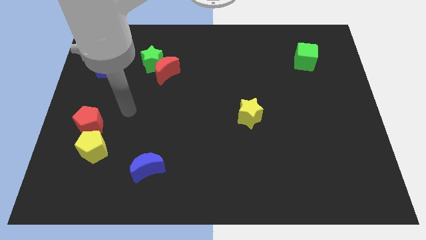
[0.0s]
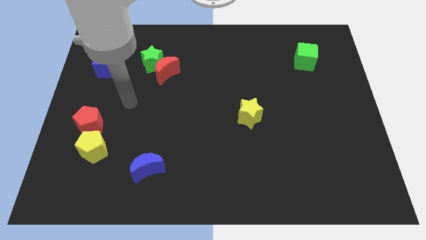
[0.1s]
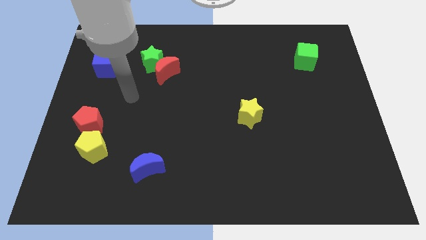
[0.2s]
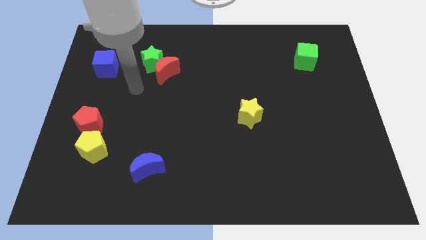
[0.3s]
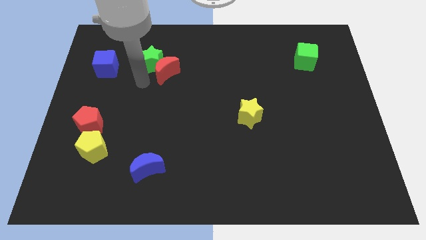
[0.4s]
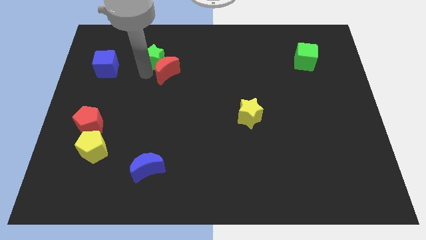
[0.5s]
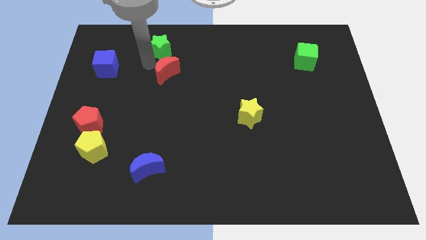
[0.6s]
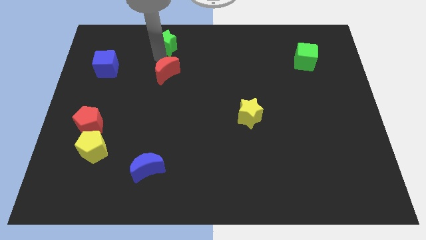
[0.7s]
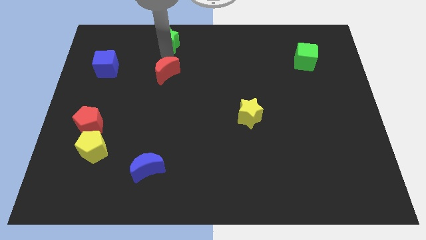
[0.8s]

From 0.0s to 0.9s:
move the red moon away from the green star

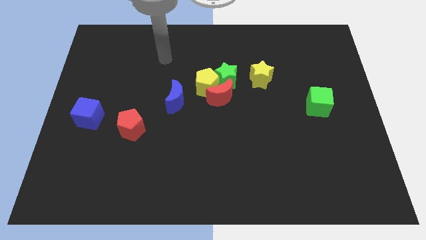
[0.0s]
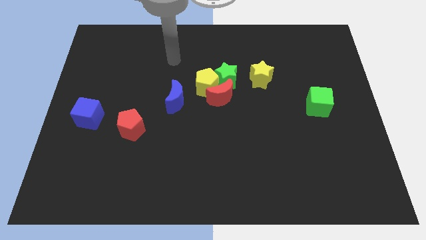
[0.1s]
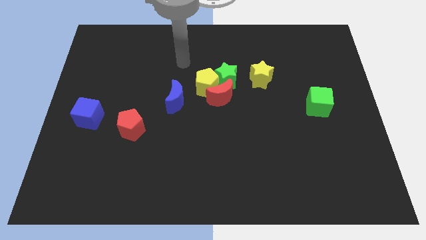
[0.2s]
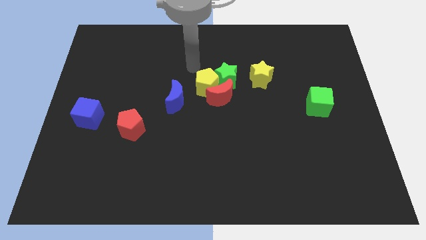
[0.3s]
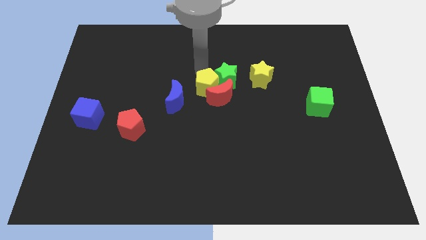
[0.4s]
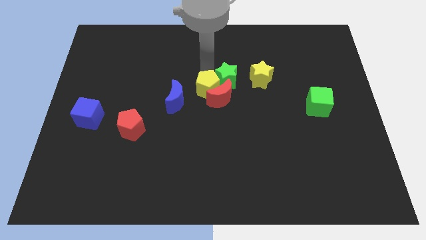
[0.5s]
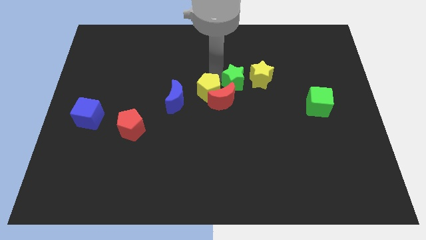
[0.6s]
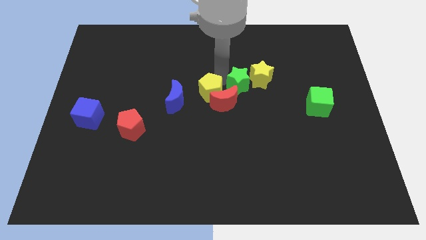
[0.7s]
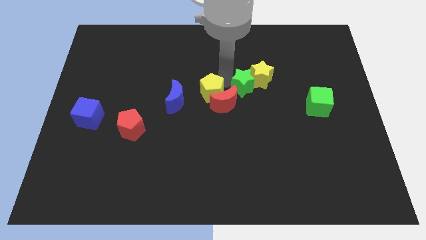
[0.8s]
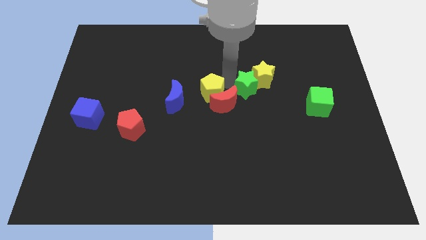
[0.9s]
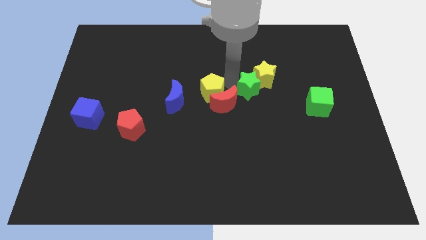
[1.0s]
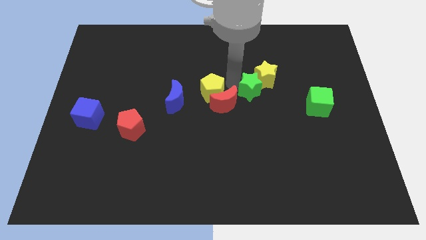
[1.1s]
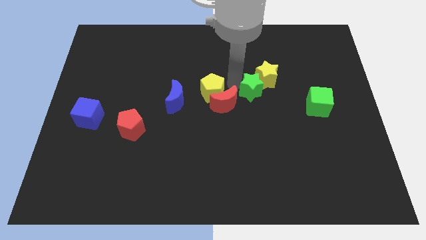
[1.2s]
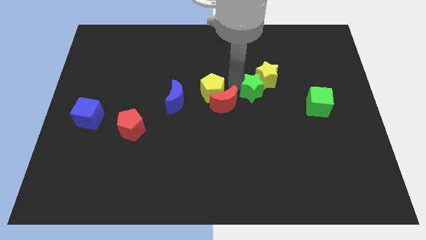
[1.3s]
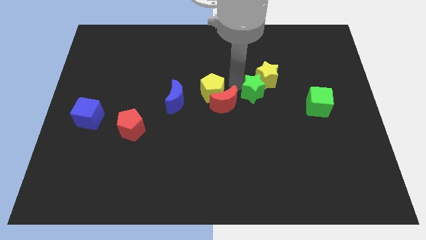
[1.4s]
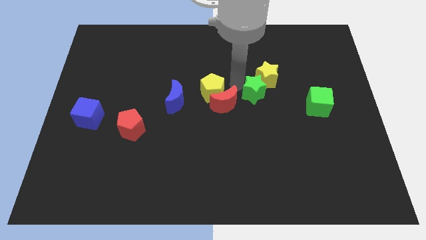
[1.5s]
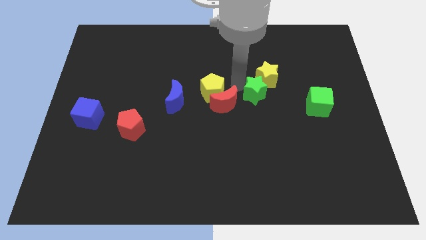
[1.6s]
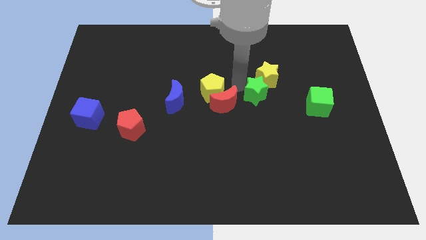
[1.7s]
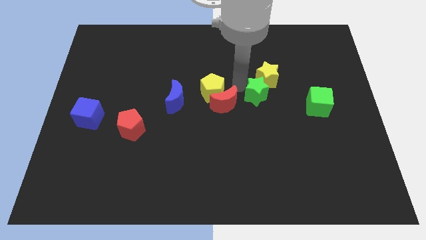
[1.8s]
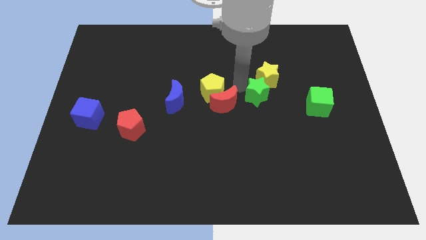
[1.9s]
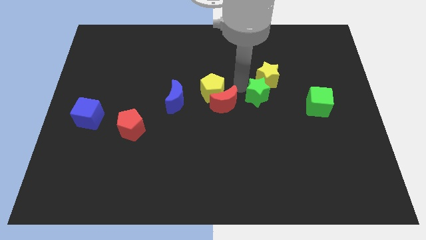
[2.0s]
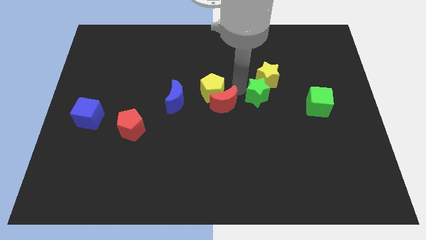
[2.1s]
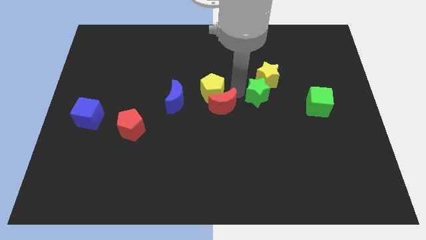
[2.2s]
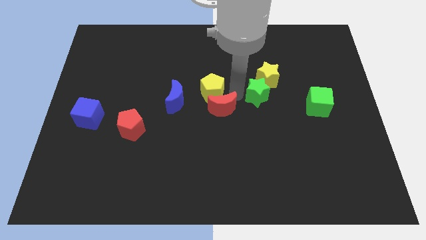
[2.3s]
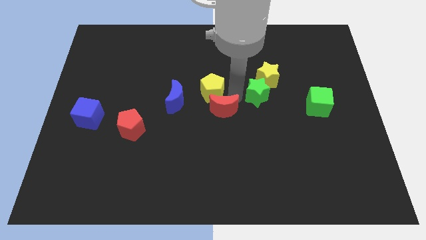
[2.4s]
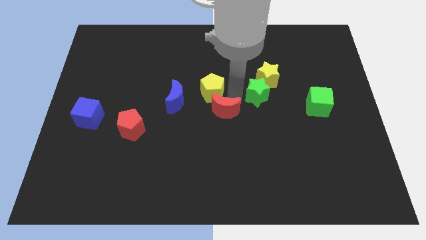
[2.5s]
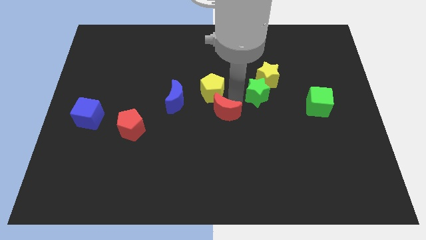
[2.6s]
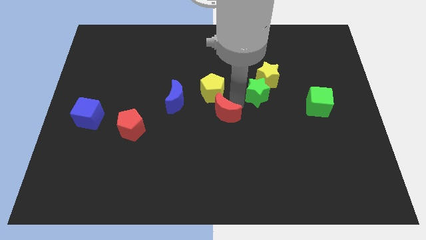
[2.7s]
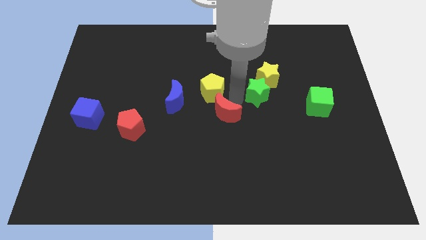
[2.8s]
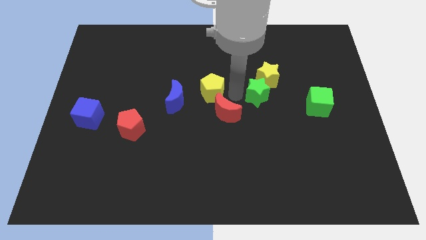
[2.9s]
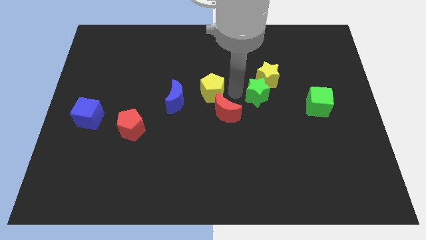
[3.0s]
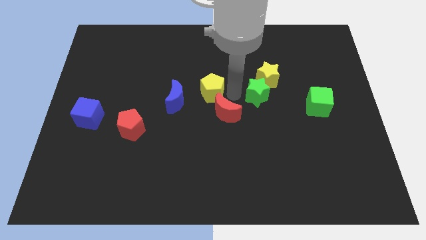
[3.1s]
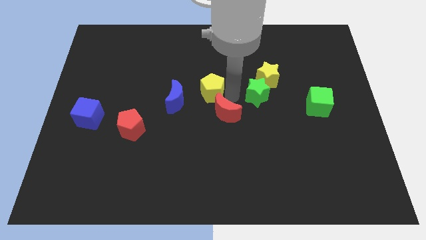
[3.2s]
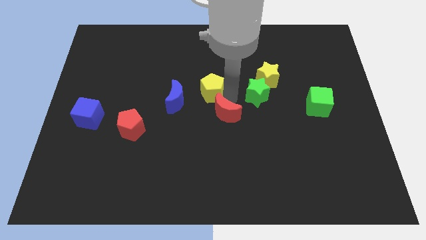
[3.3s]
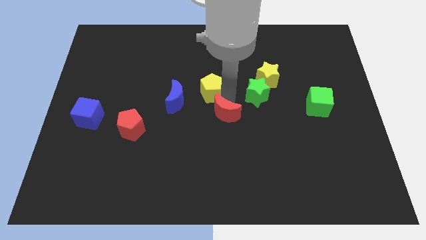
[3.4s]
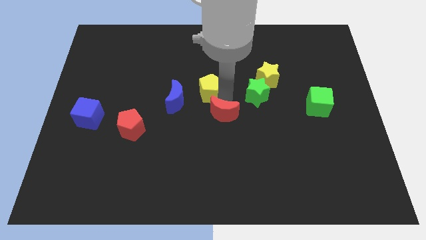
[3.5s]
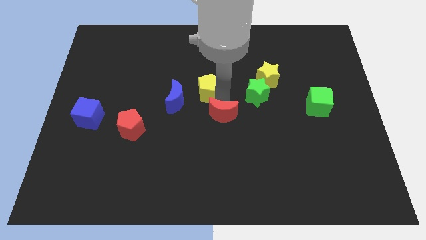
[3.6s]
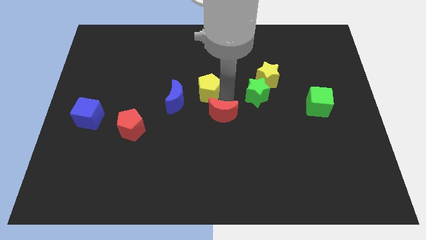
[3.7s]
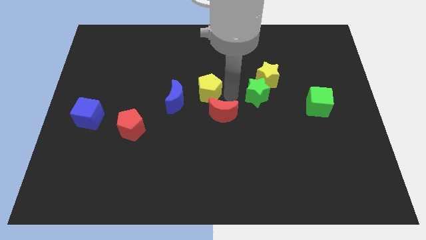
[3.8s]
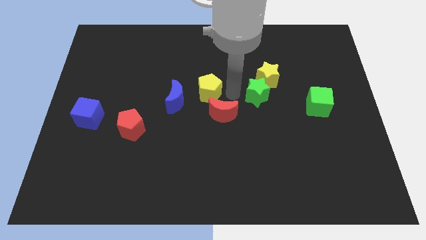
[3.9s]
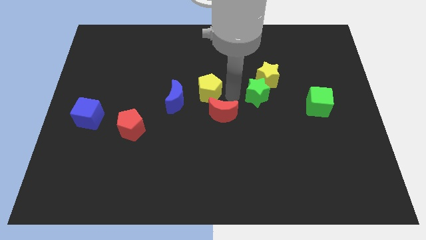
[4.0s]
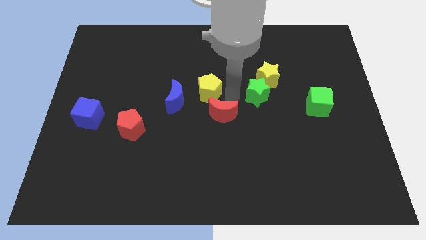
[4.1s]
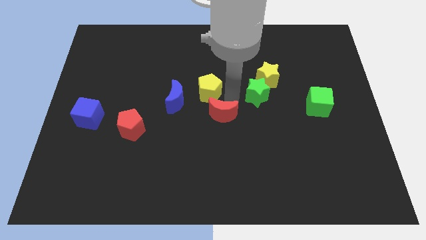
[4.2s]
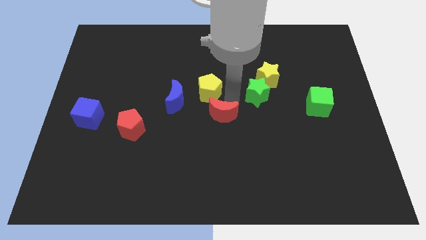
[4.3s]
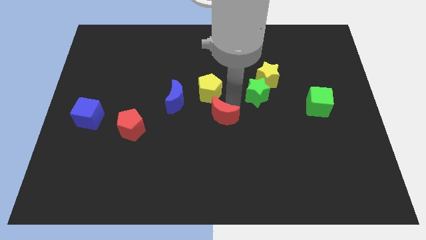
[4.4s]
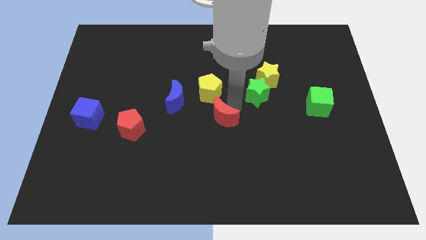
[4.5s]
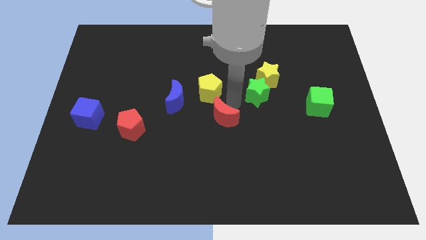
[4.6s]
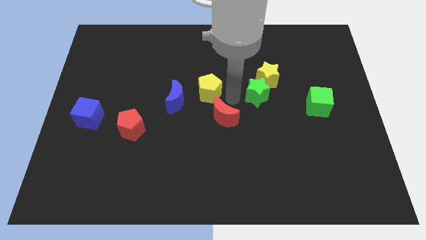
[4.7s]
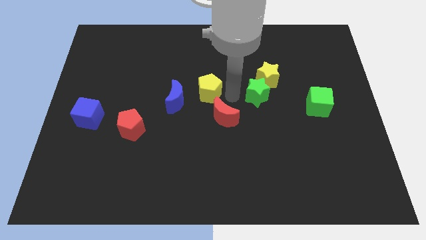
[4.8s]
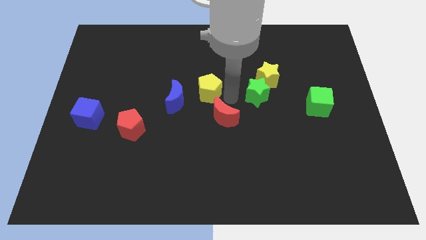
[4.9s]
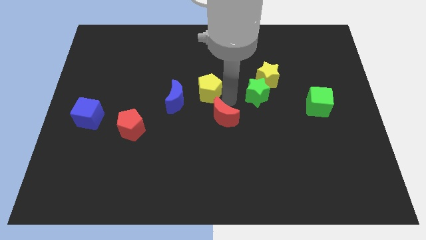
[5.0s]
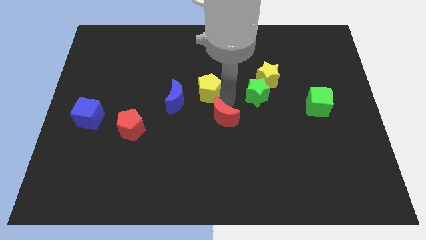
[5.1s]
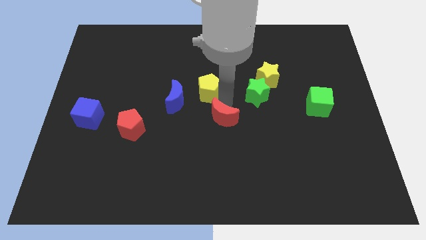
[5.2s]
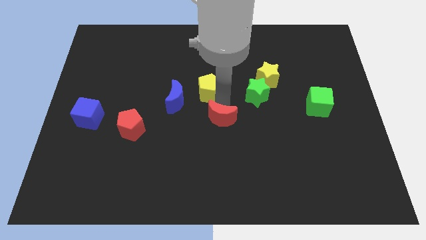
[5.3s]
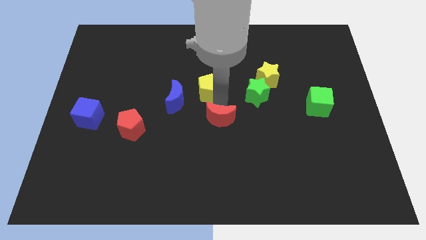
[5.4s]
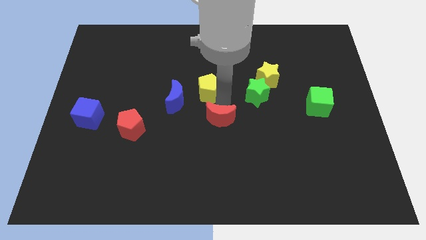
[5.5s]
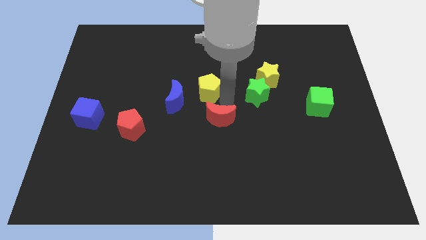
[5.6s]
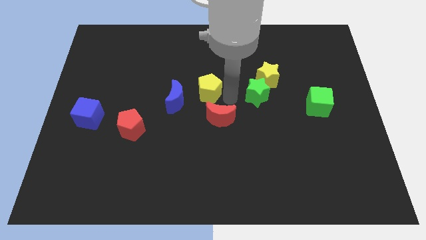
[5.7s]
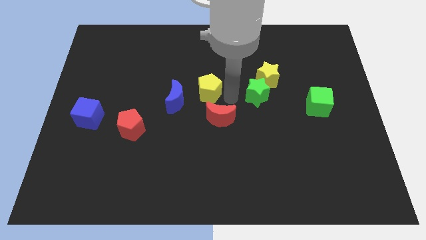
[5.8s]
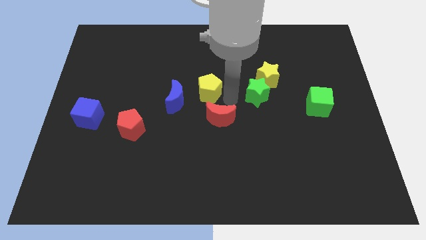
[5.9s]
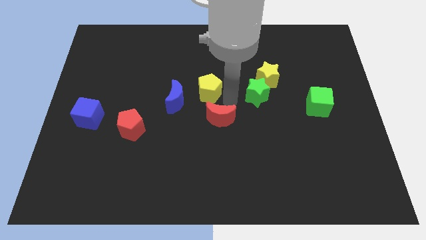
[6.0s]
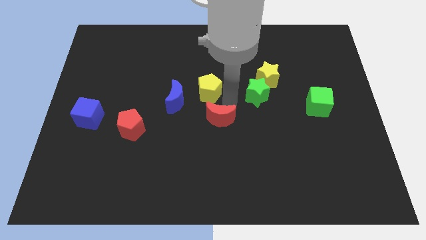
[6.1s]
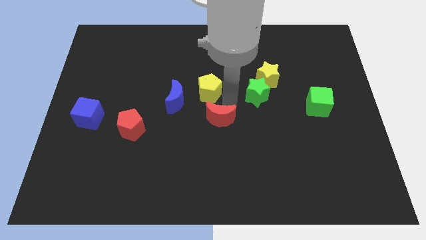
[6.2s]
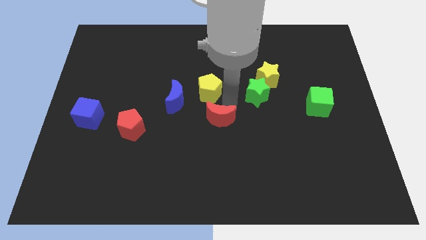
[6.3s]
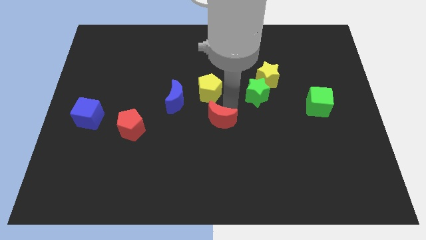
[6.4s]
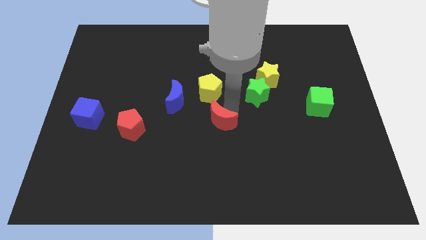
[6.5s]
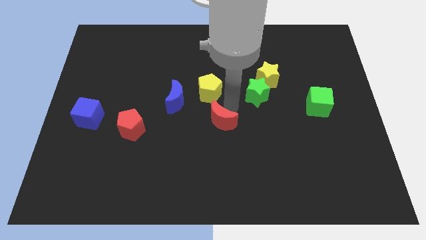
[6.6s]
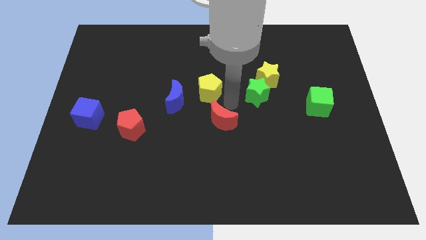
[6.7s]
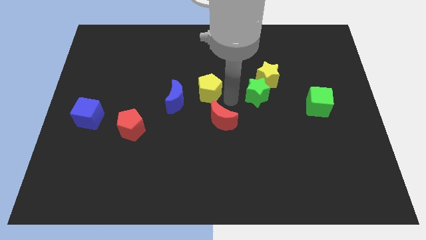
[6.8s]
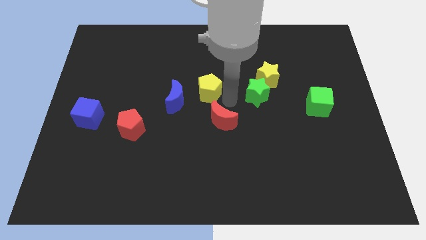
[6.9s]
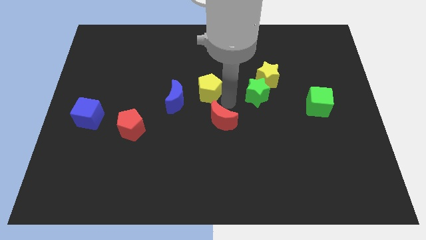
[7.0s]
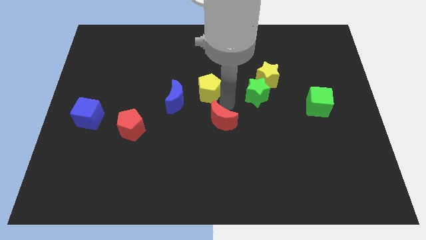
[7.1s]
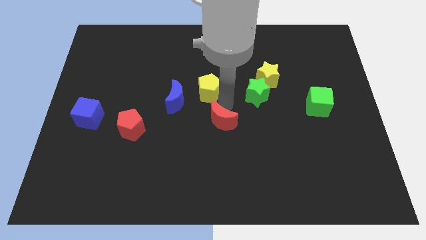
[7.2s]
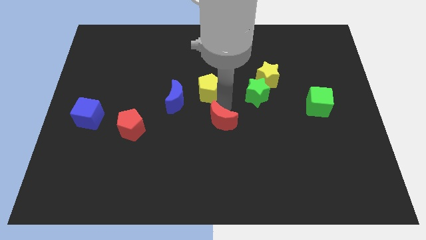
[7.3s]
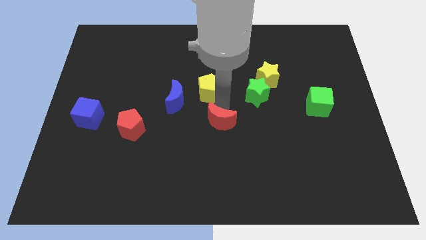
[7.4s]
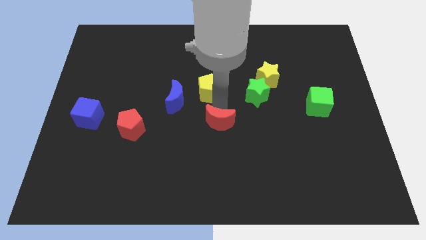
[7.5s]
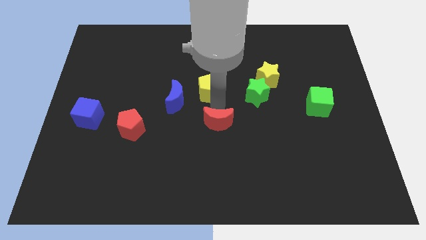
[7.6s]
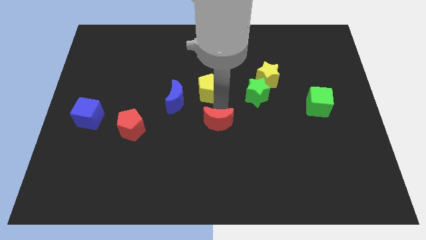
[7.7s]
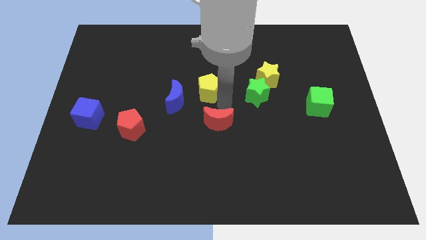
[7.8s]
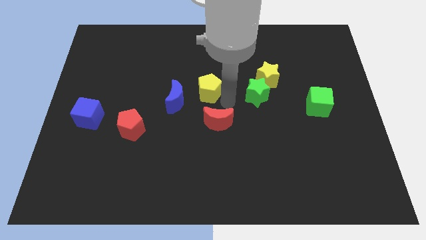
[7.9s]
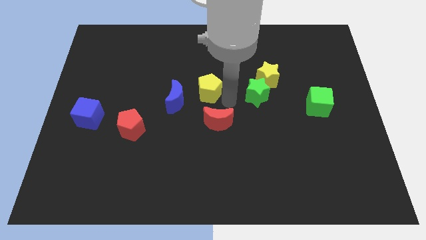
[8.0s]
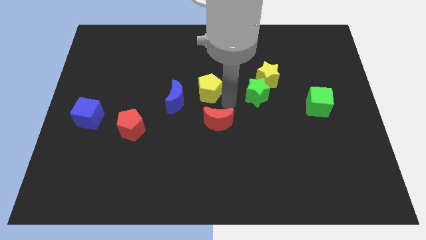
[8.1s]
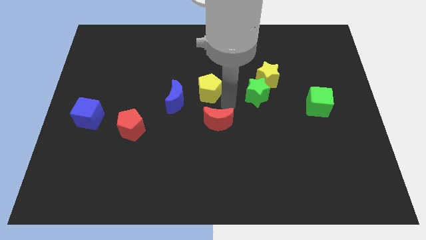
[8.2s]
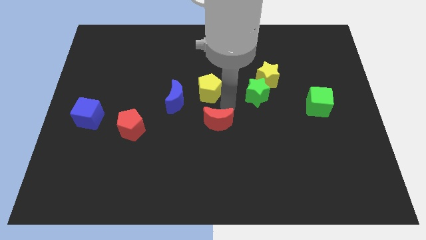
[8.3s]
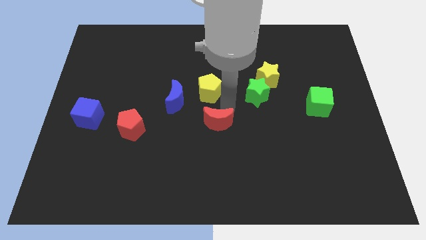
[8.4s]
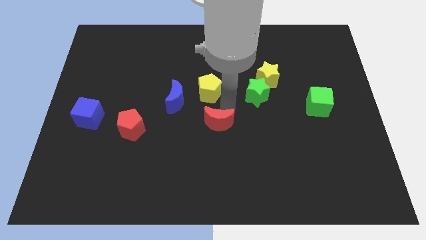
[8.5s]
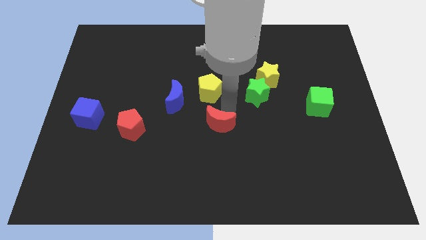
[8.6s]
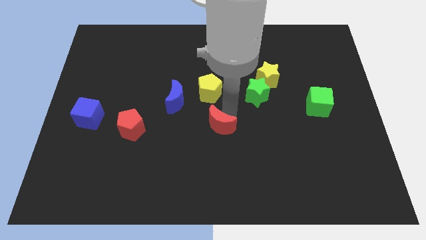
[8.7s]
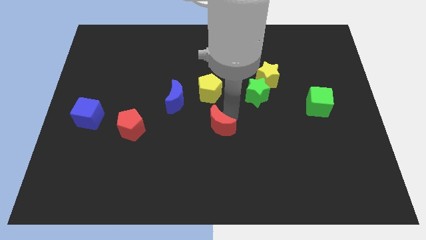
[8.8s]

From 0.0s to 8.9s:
separate the red moon from the yellow pentagon and green star
